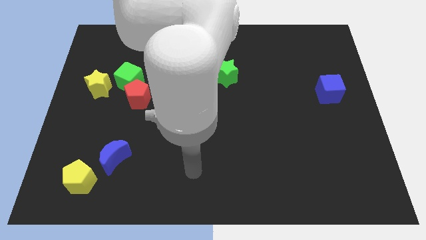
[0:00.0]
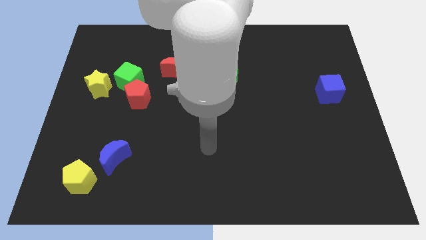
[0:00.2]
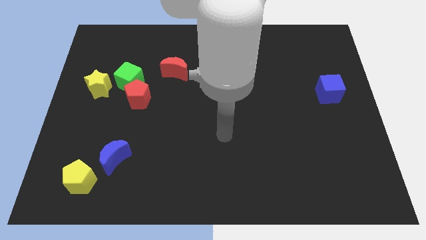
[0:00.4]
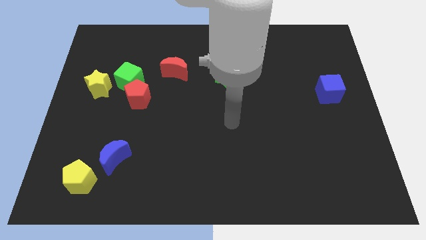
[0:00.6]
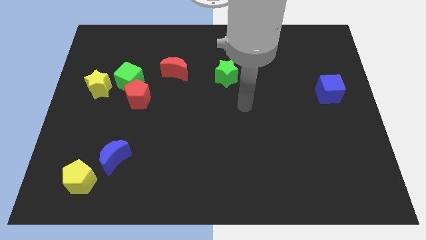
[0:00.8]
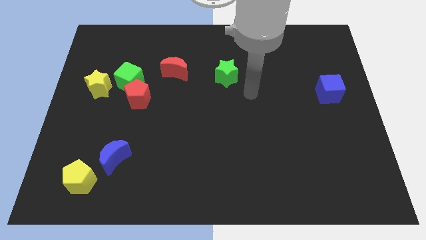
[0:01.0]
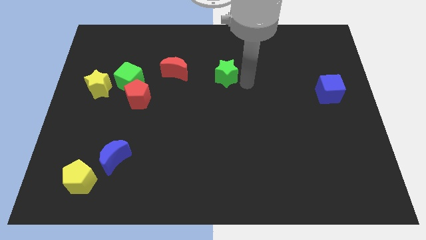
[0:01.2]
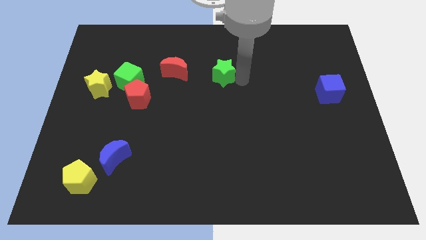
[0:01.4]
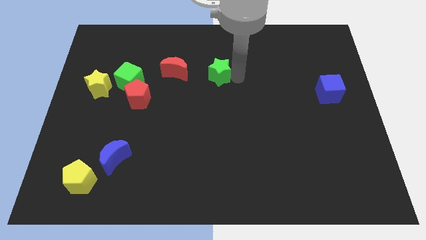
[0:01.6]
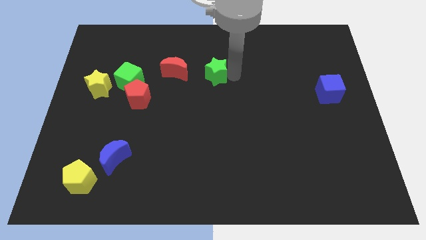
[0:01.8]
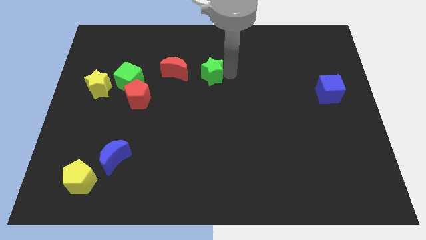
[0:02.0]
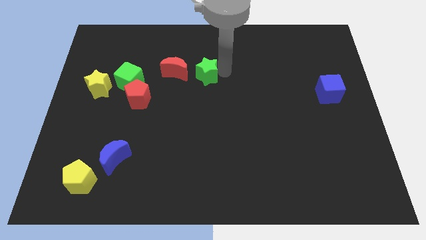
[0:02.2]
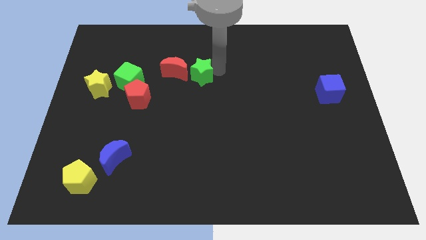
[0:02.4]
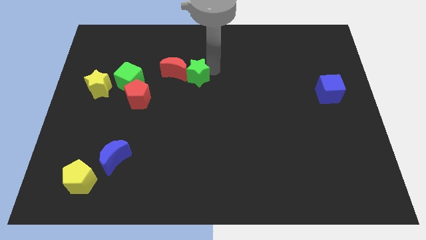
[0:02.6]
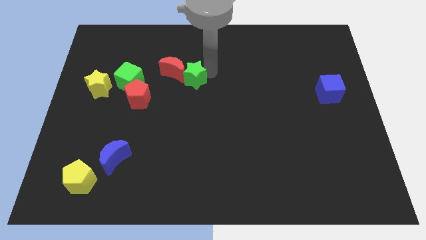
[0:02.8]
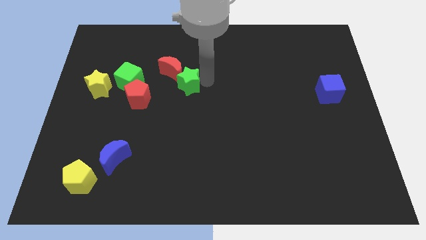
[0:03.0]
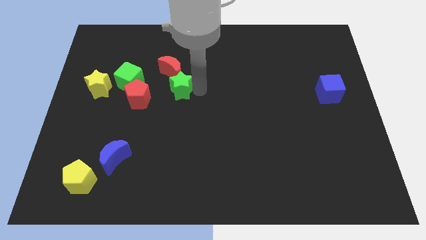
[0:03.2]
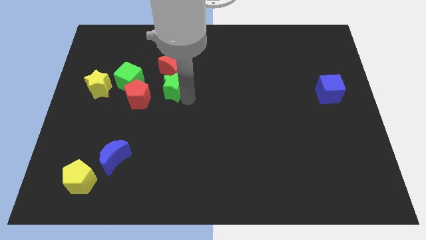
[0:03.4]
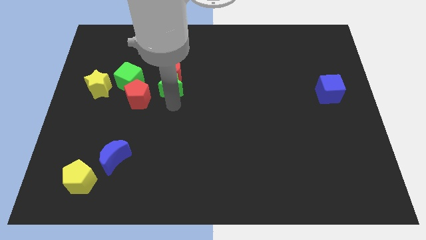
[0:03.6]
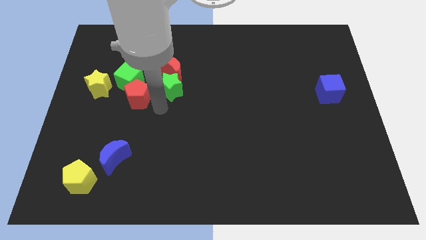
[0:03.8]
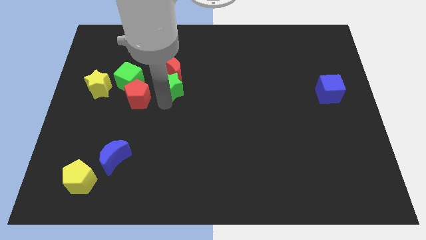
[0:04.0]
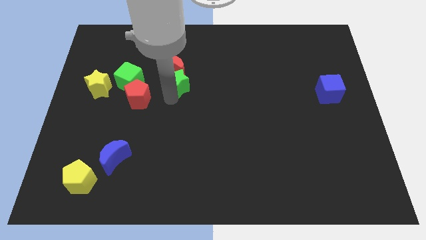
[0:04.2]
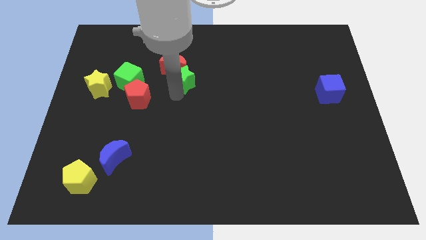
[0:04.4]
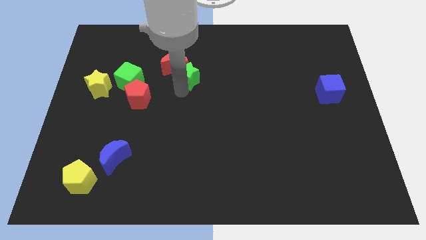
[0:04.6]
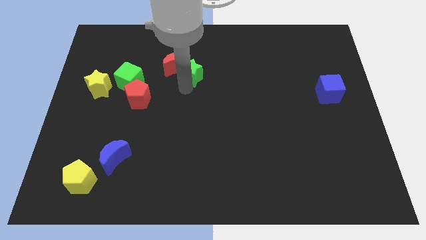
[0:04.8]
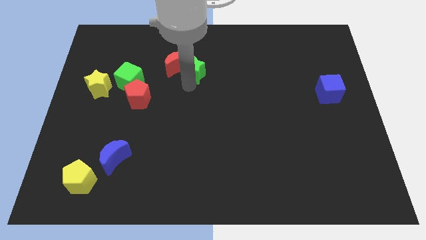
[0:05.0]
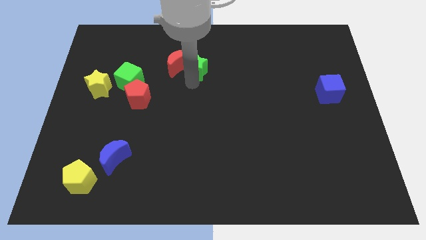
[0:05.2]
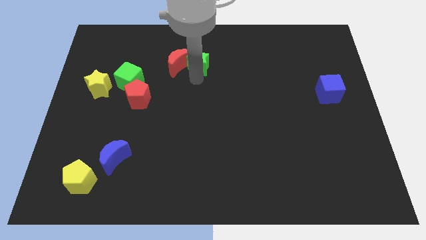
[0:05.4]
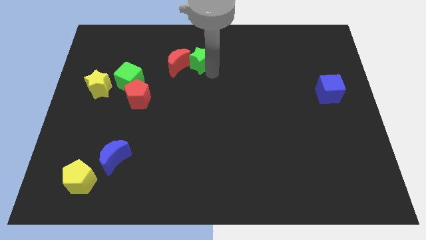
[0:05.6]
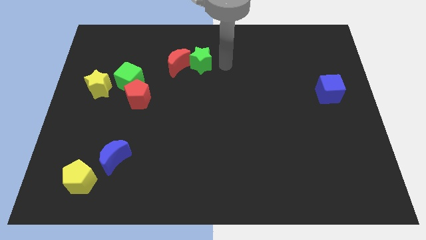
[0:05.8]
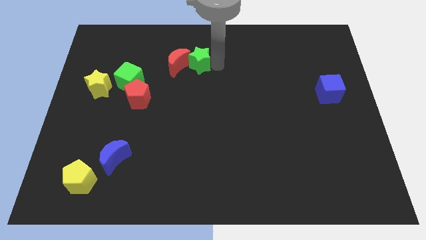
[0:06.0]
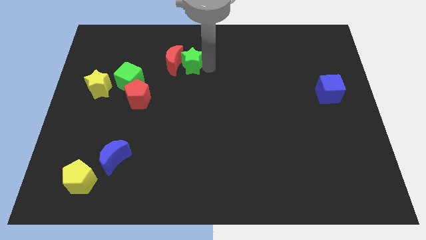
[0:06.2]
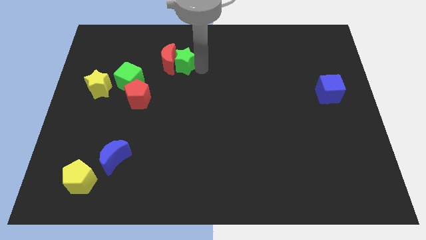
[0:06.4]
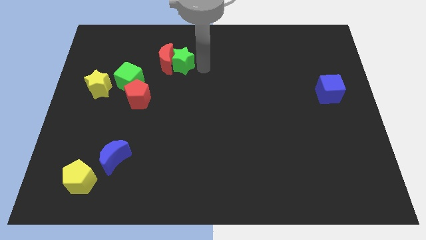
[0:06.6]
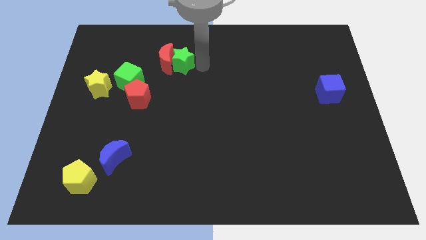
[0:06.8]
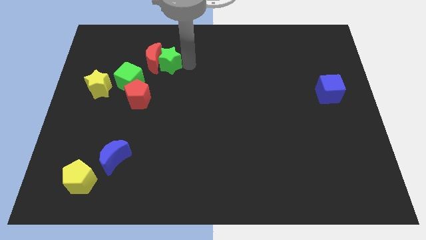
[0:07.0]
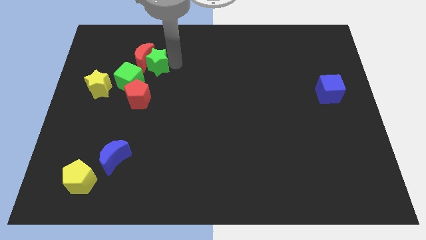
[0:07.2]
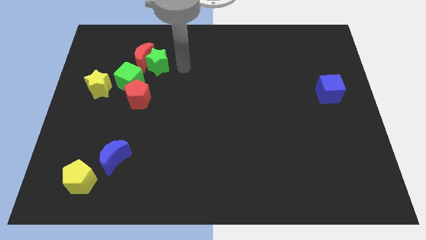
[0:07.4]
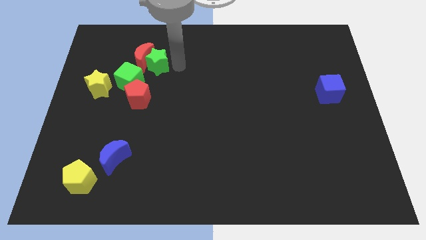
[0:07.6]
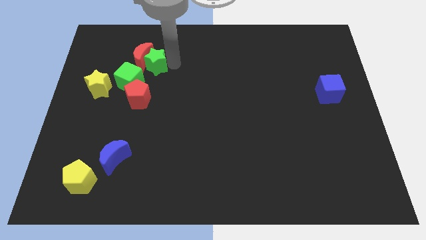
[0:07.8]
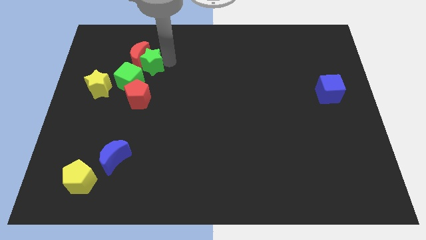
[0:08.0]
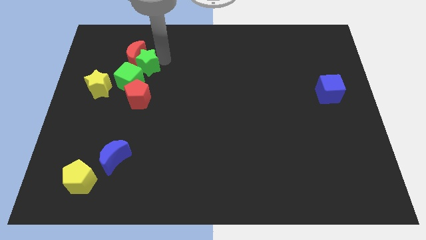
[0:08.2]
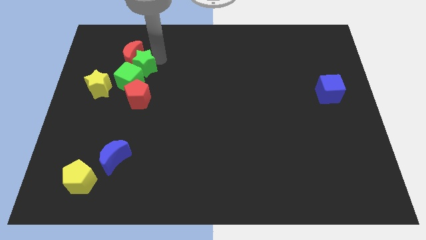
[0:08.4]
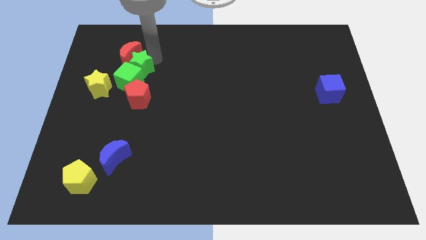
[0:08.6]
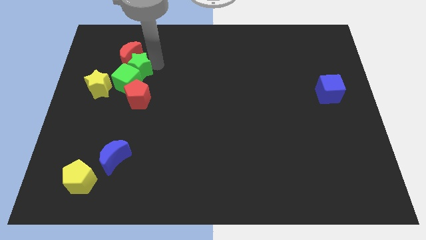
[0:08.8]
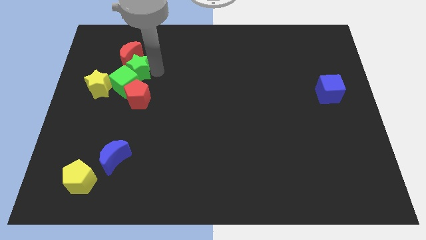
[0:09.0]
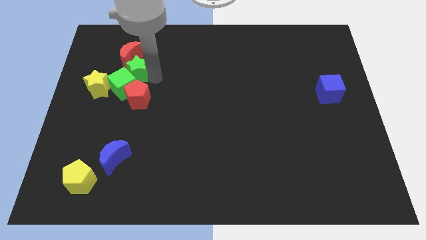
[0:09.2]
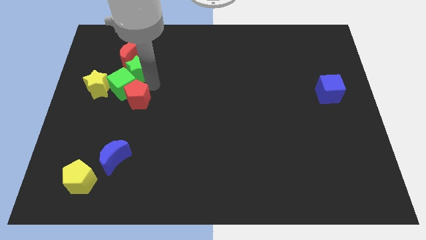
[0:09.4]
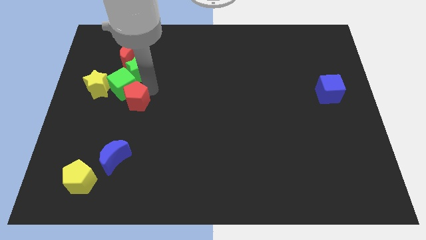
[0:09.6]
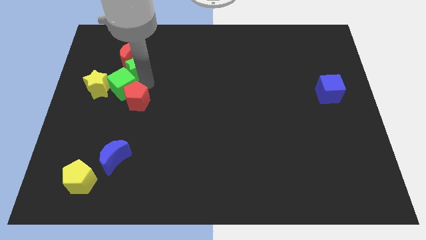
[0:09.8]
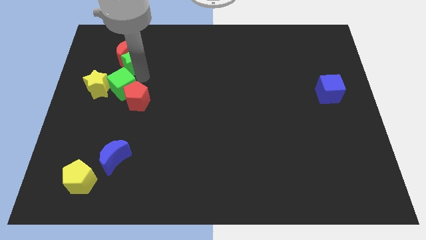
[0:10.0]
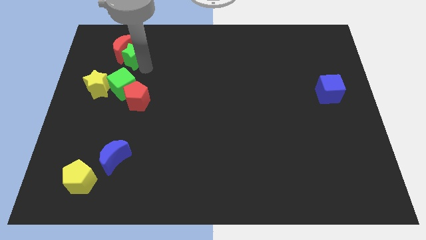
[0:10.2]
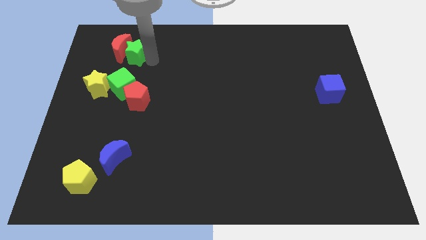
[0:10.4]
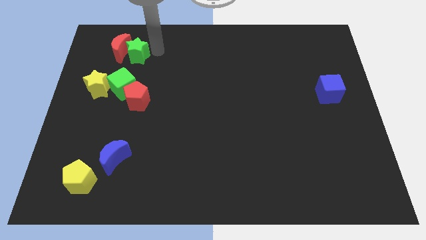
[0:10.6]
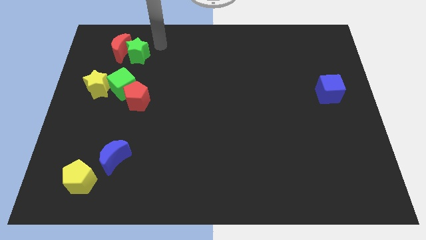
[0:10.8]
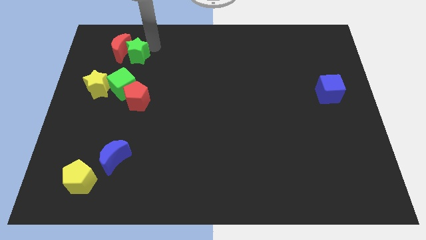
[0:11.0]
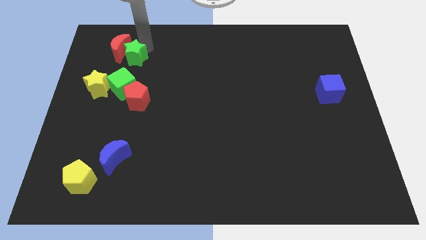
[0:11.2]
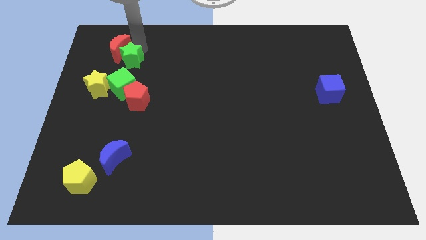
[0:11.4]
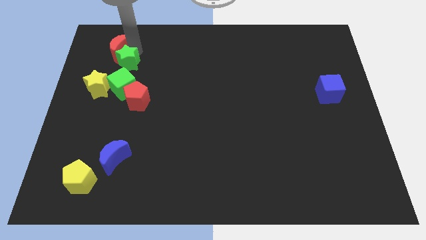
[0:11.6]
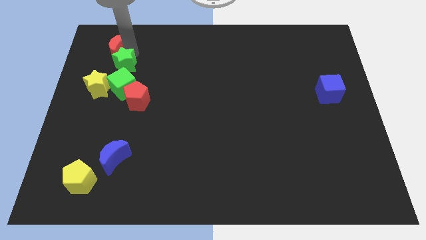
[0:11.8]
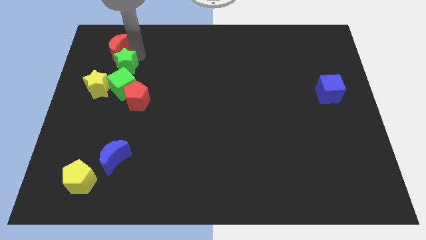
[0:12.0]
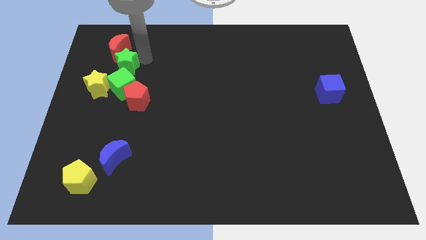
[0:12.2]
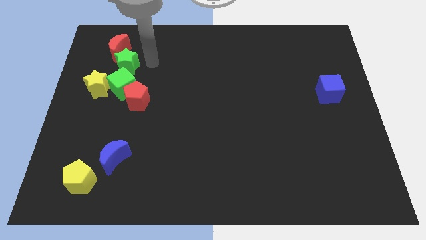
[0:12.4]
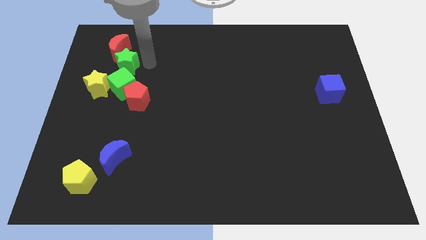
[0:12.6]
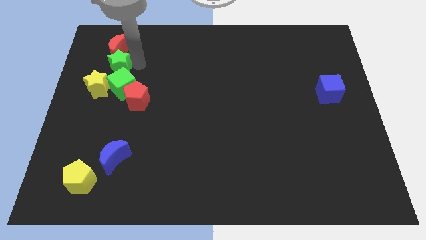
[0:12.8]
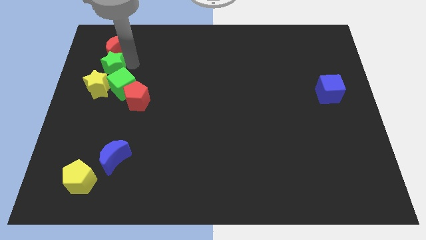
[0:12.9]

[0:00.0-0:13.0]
move the green star to the top left side of the red pentagon

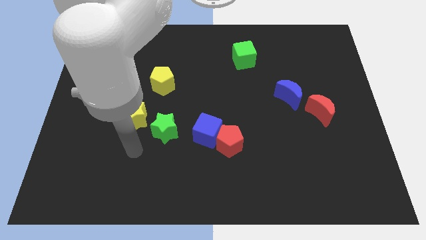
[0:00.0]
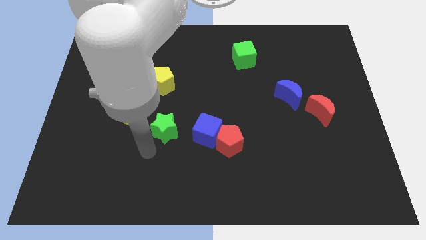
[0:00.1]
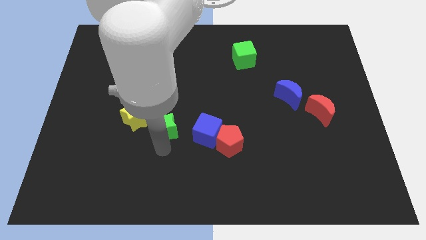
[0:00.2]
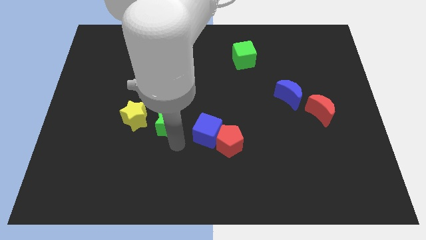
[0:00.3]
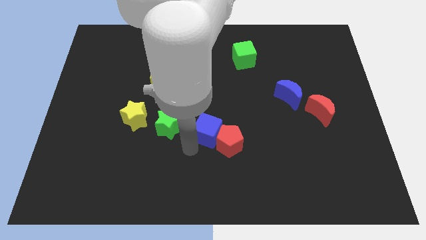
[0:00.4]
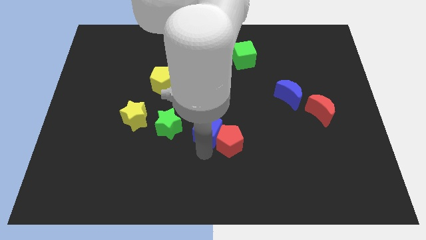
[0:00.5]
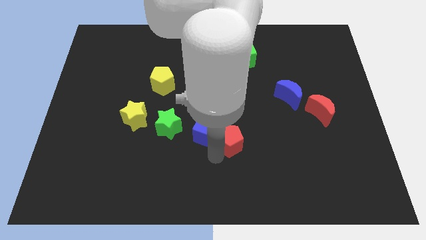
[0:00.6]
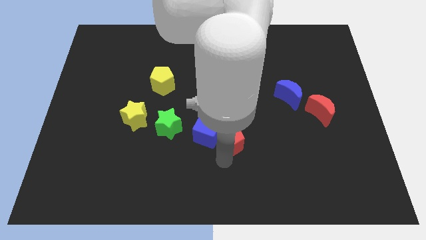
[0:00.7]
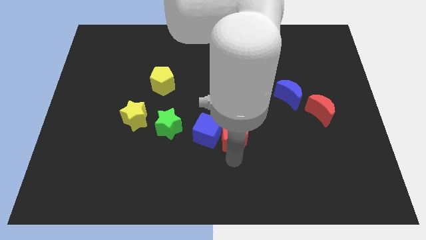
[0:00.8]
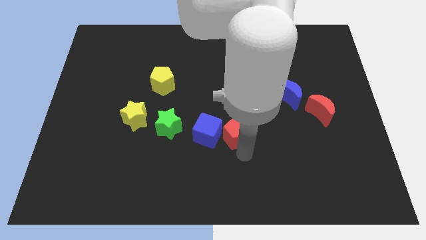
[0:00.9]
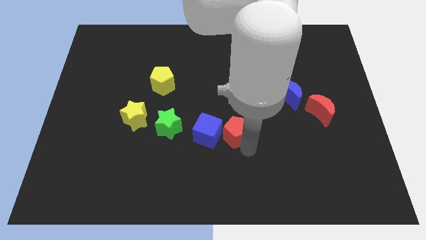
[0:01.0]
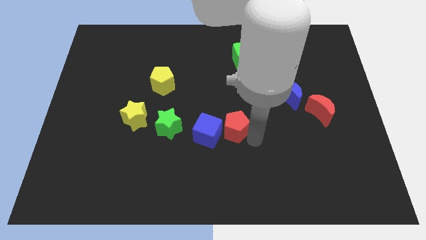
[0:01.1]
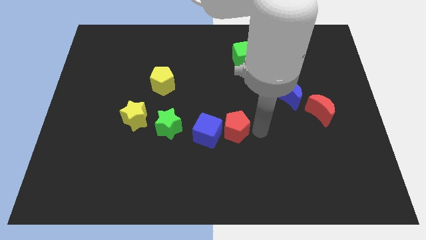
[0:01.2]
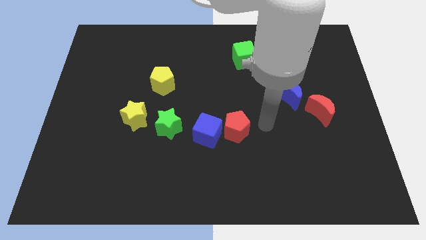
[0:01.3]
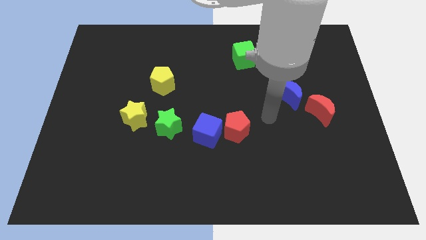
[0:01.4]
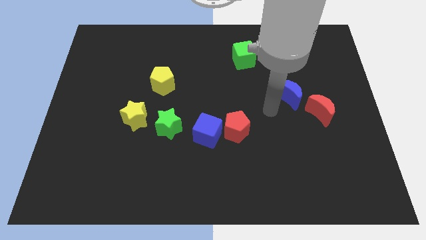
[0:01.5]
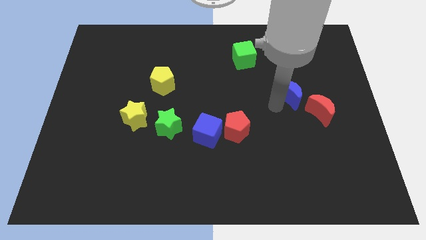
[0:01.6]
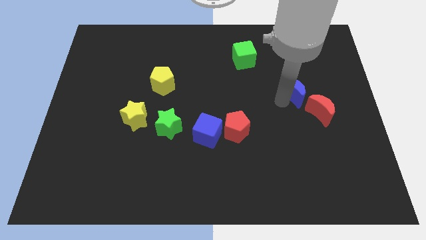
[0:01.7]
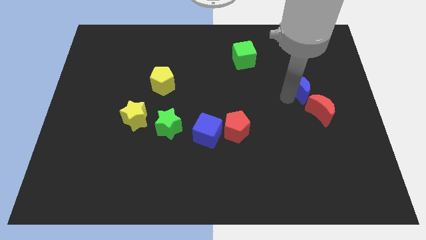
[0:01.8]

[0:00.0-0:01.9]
put the blue moon above the red moon
